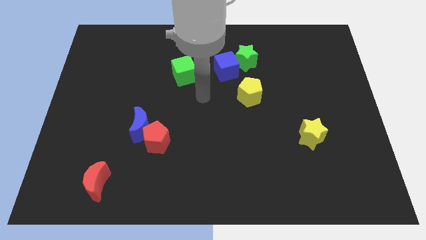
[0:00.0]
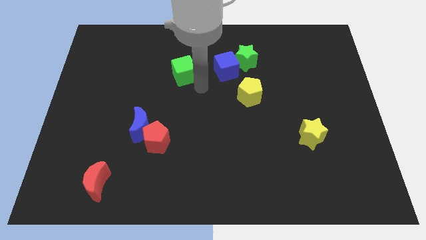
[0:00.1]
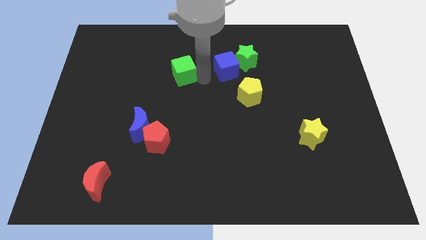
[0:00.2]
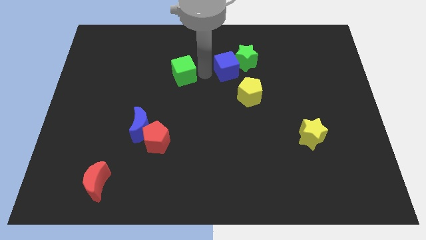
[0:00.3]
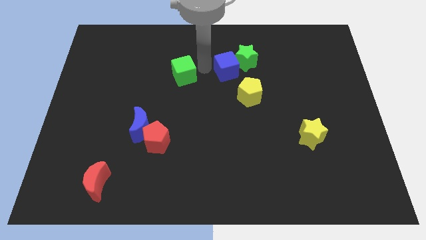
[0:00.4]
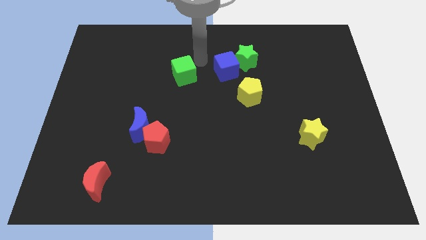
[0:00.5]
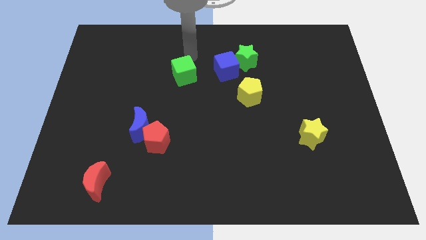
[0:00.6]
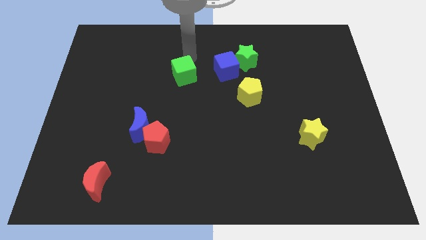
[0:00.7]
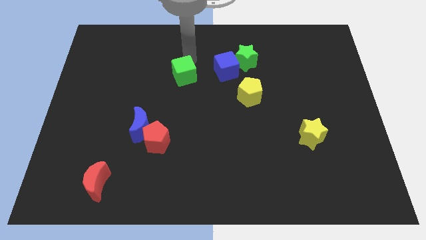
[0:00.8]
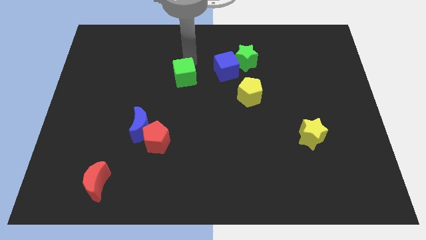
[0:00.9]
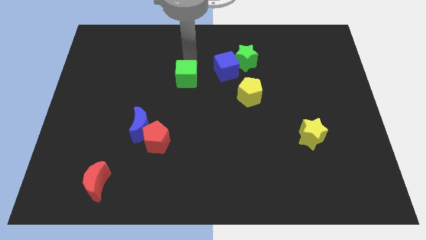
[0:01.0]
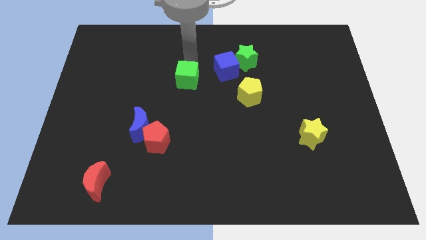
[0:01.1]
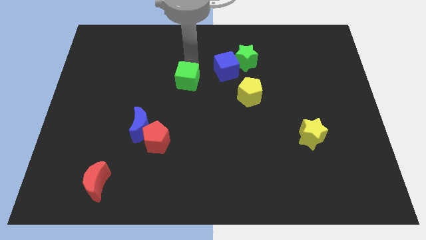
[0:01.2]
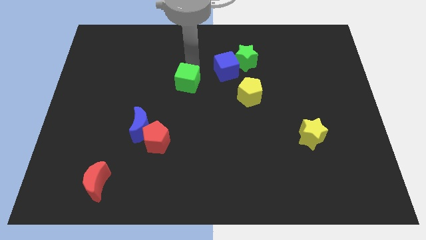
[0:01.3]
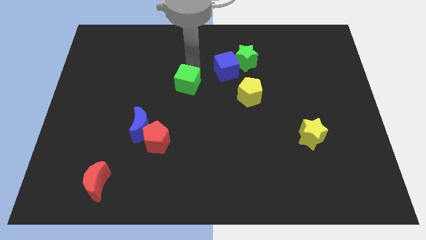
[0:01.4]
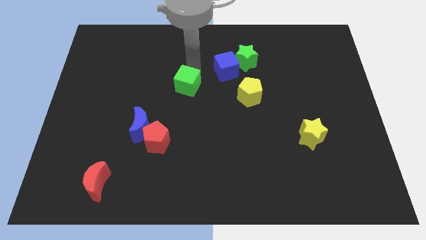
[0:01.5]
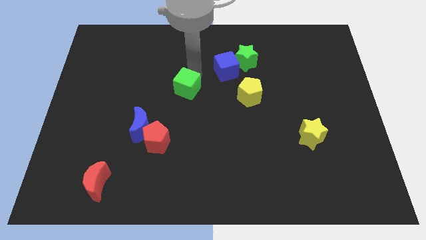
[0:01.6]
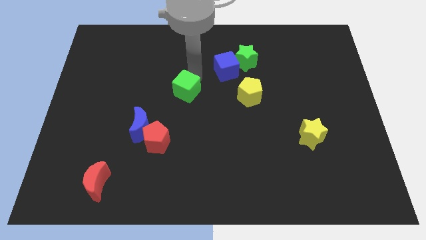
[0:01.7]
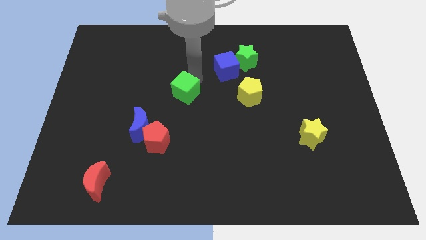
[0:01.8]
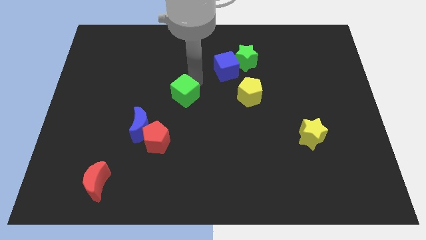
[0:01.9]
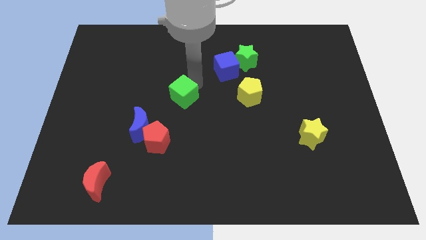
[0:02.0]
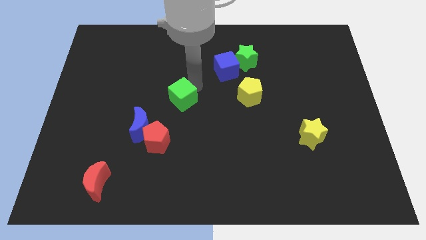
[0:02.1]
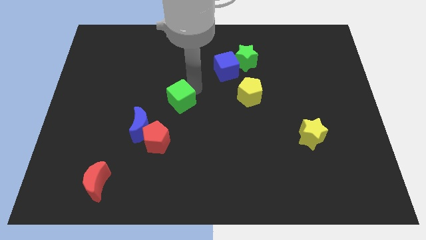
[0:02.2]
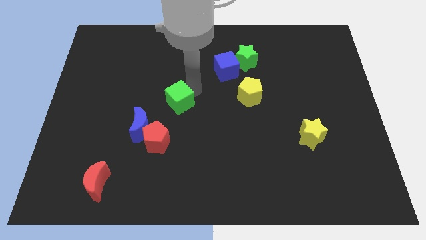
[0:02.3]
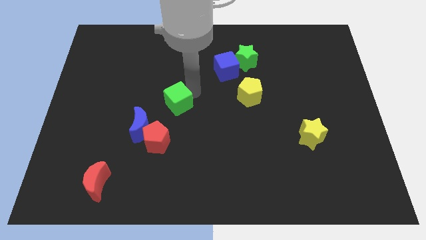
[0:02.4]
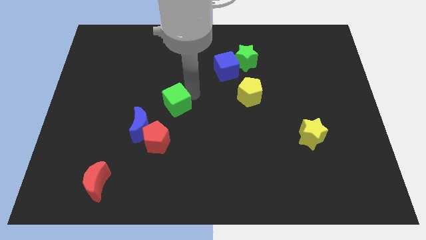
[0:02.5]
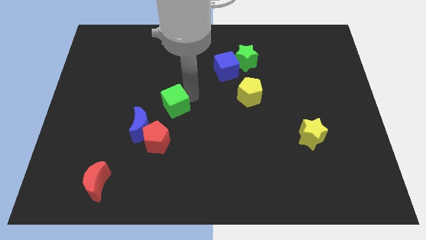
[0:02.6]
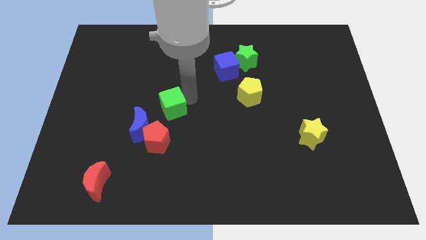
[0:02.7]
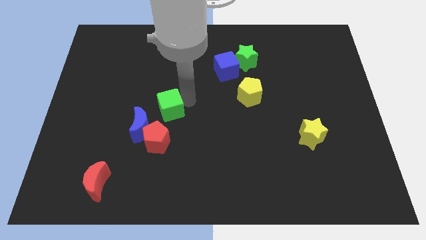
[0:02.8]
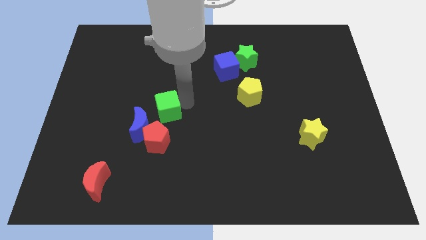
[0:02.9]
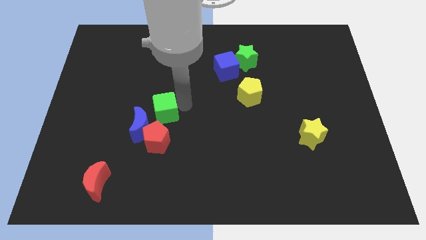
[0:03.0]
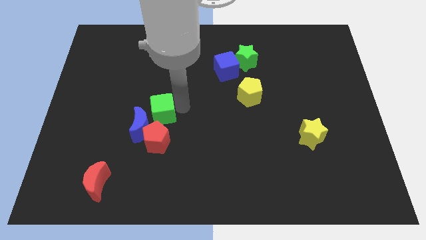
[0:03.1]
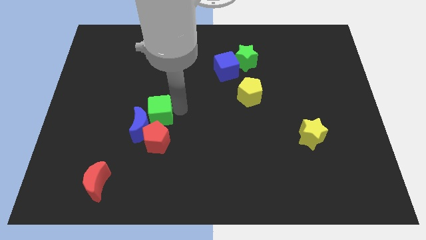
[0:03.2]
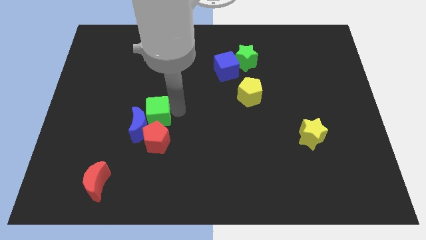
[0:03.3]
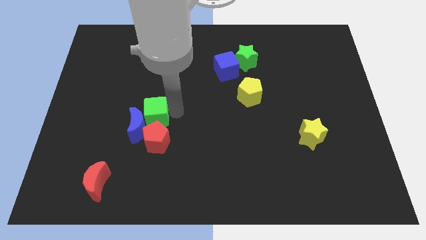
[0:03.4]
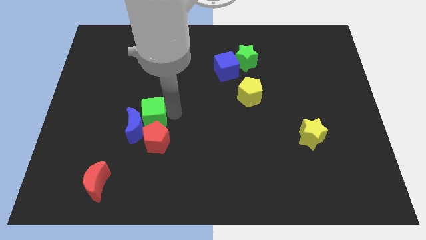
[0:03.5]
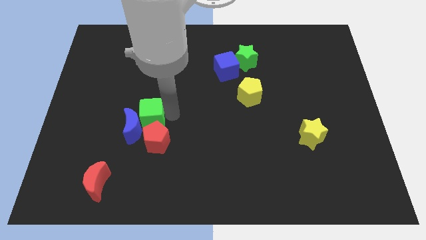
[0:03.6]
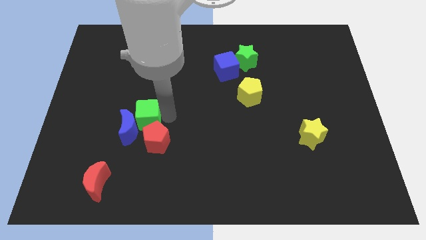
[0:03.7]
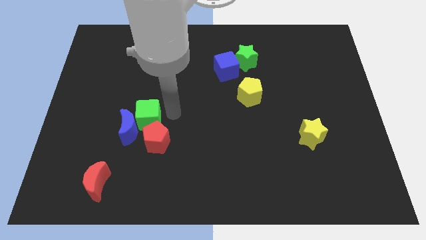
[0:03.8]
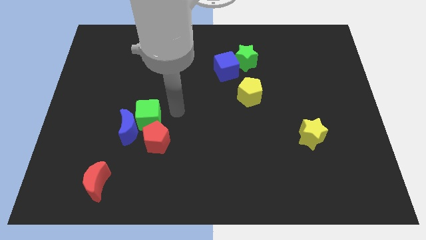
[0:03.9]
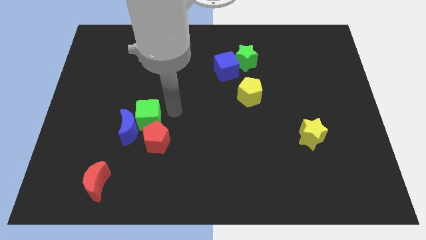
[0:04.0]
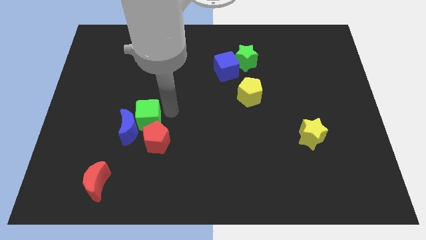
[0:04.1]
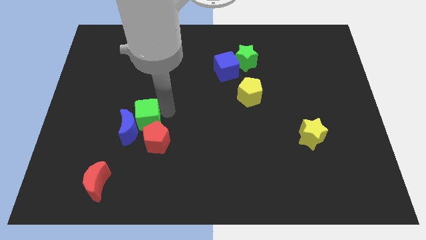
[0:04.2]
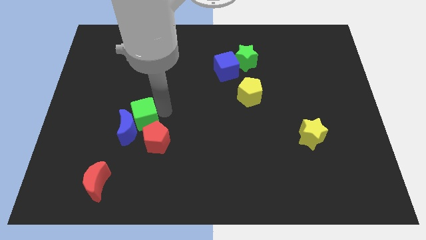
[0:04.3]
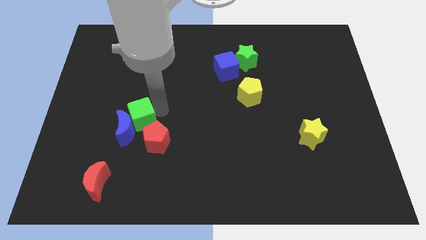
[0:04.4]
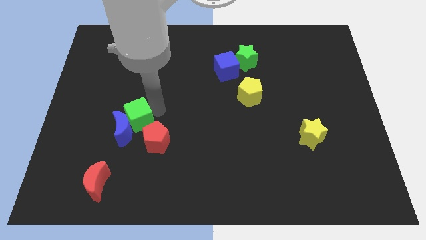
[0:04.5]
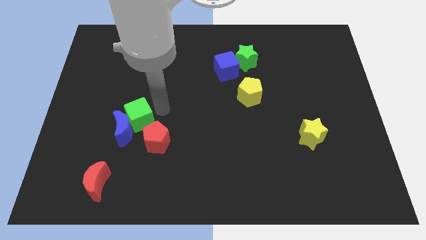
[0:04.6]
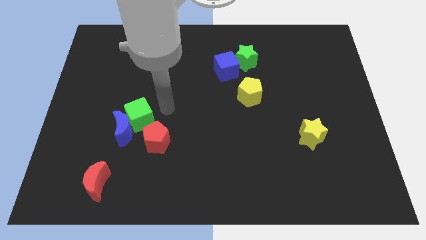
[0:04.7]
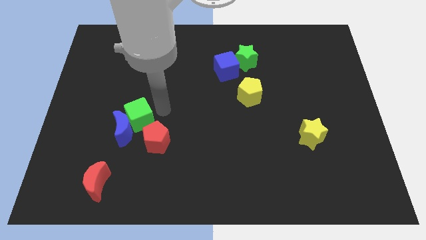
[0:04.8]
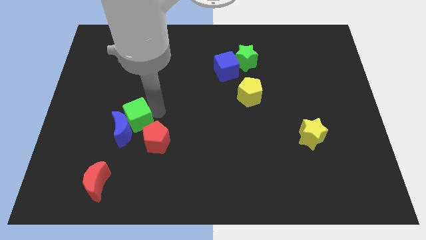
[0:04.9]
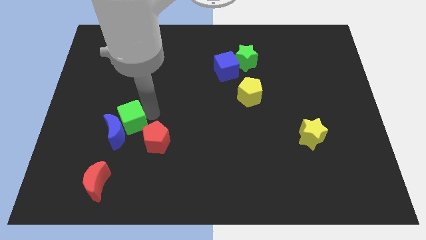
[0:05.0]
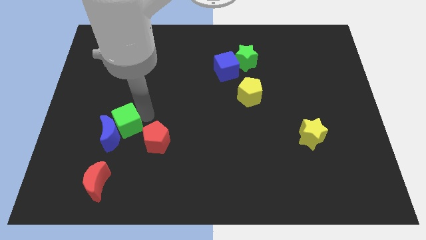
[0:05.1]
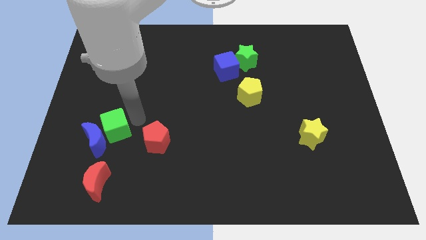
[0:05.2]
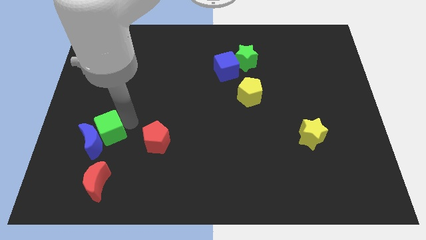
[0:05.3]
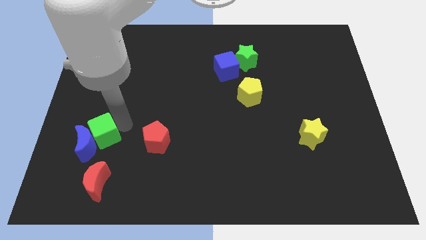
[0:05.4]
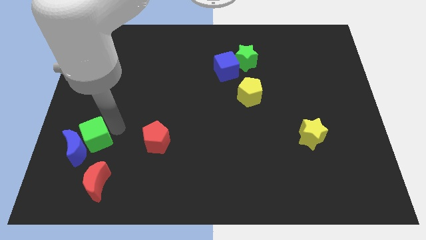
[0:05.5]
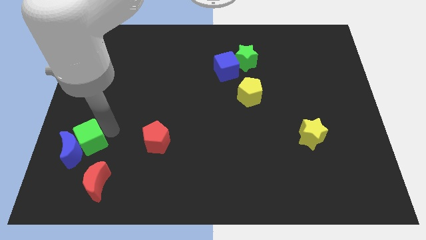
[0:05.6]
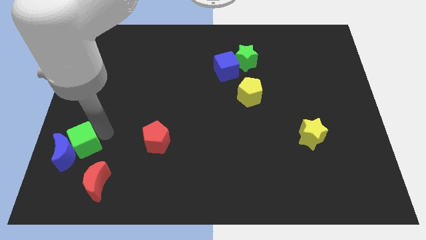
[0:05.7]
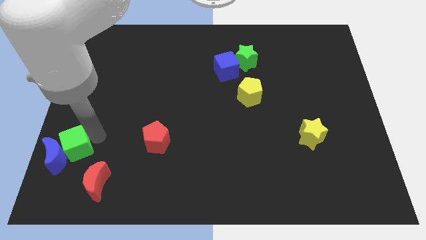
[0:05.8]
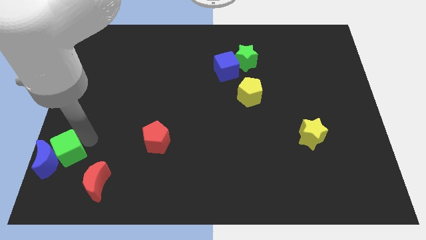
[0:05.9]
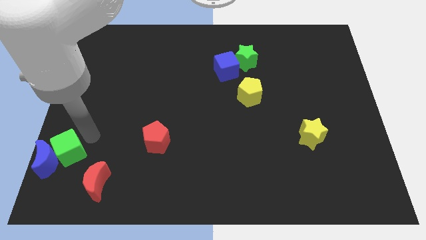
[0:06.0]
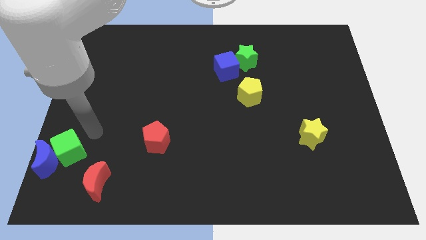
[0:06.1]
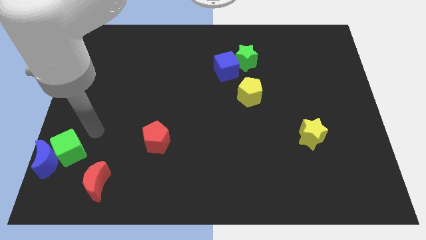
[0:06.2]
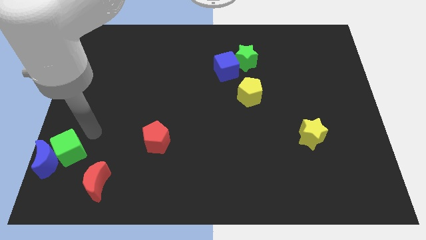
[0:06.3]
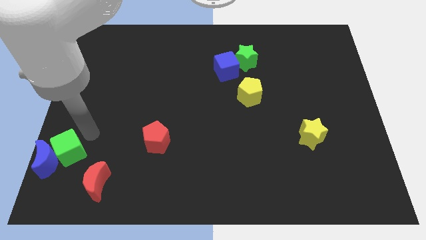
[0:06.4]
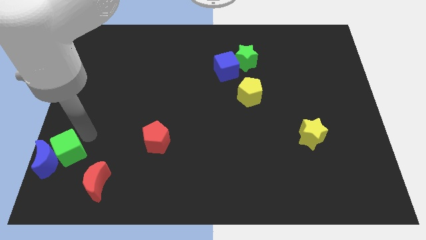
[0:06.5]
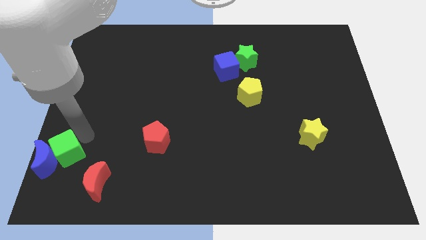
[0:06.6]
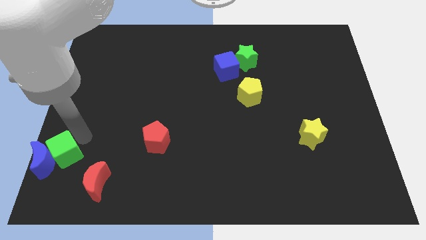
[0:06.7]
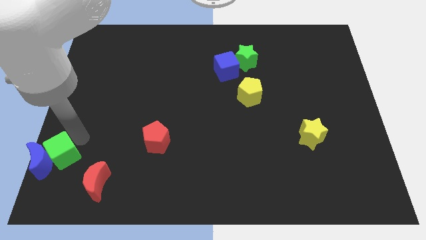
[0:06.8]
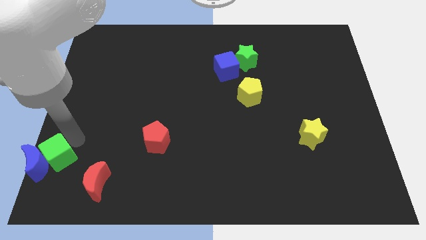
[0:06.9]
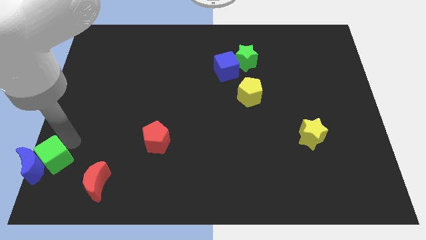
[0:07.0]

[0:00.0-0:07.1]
put the green cube to the lower left corner
